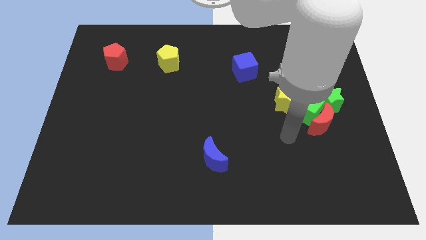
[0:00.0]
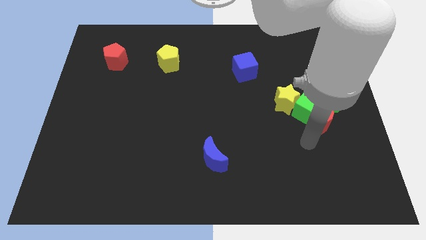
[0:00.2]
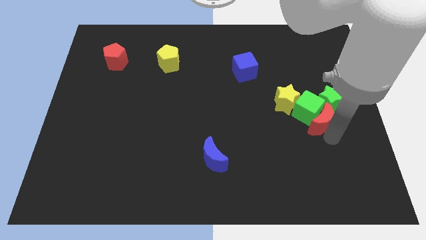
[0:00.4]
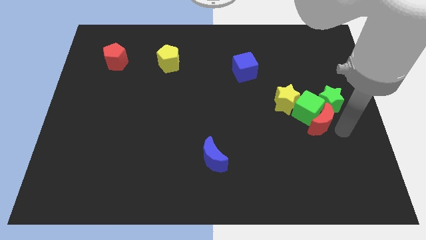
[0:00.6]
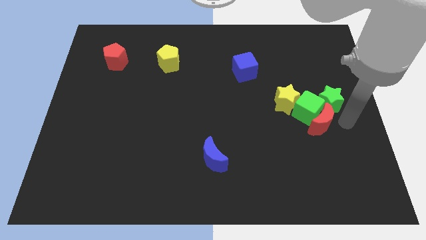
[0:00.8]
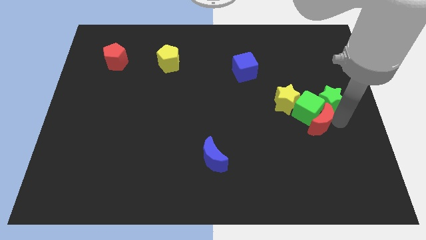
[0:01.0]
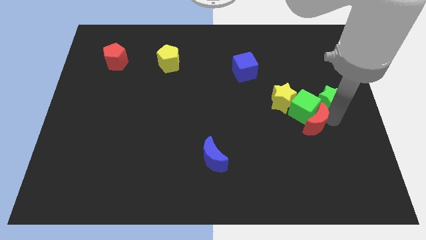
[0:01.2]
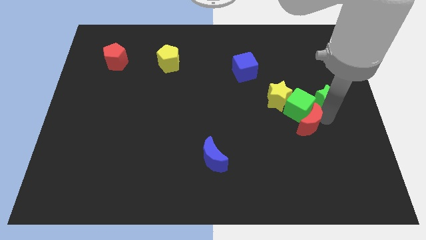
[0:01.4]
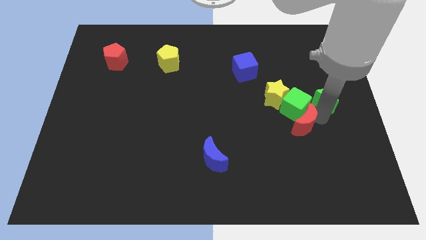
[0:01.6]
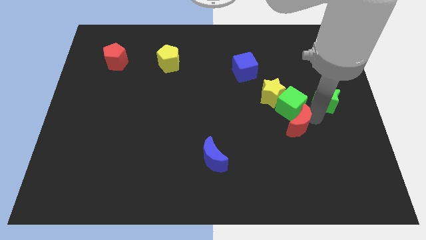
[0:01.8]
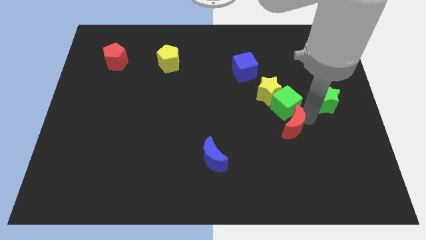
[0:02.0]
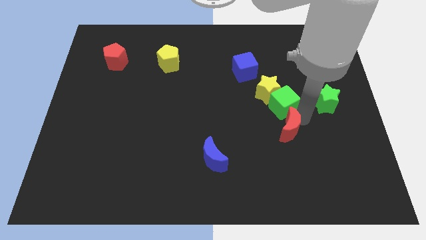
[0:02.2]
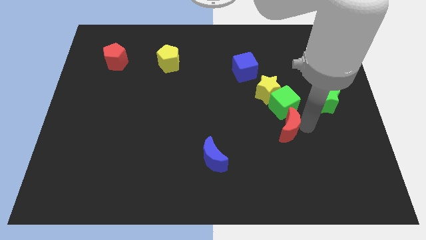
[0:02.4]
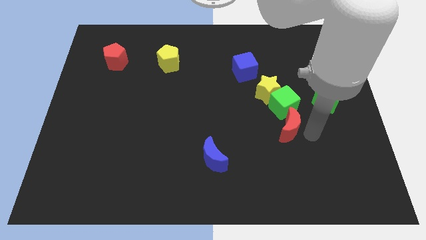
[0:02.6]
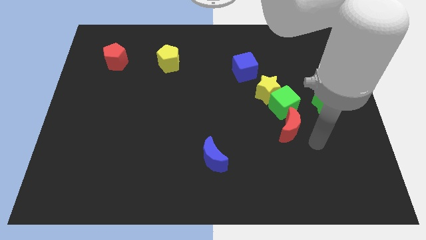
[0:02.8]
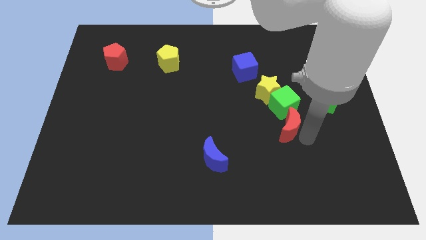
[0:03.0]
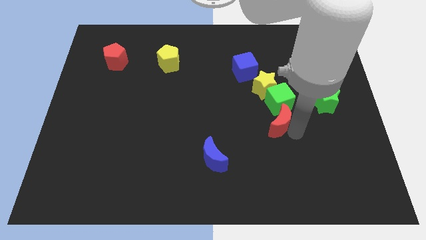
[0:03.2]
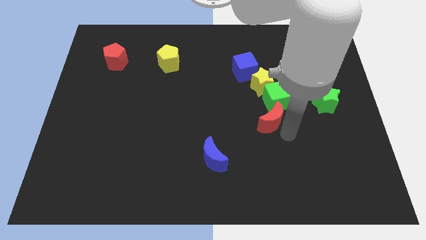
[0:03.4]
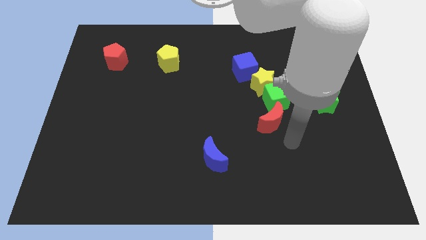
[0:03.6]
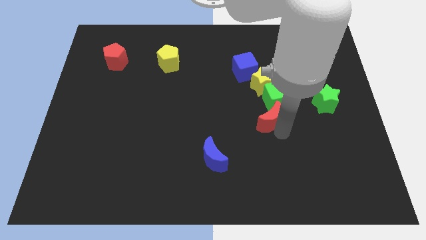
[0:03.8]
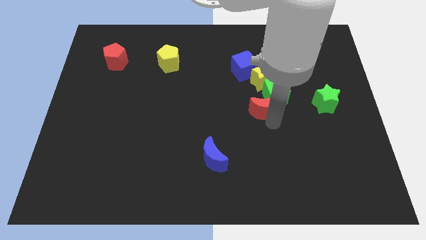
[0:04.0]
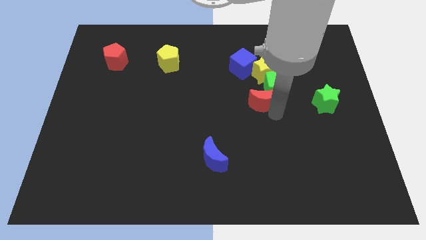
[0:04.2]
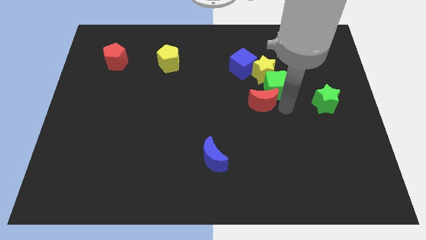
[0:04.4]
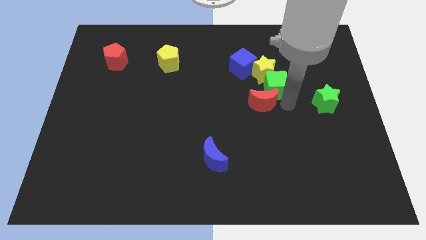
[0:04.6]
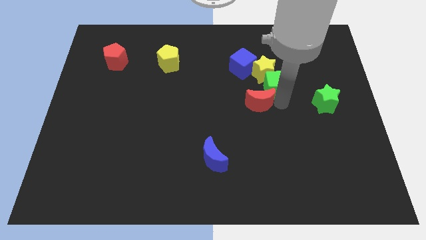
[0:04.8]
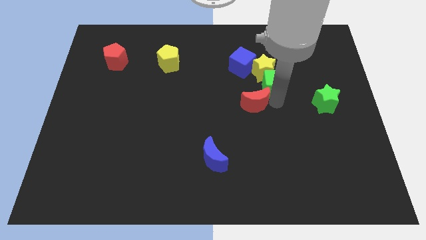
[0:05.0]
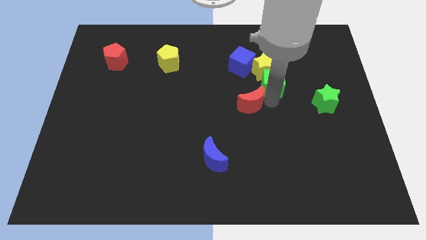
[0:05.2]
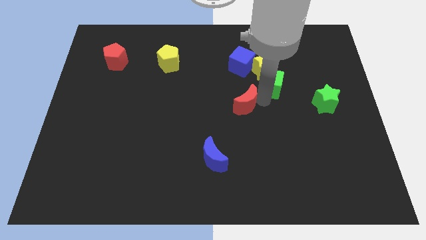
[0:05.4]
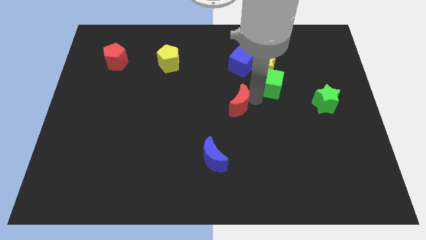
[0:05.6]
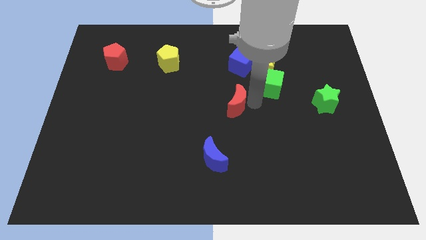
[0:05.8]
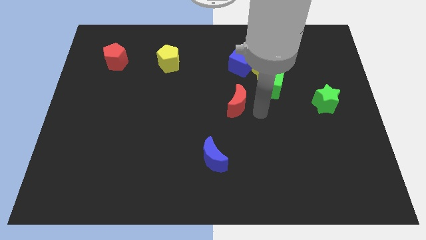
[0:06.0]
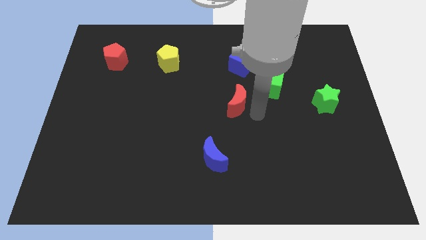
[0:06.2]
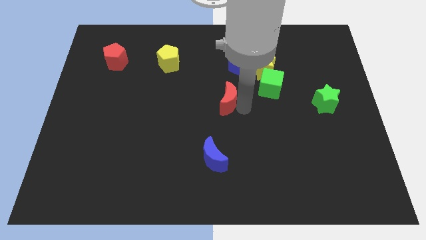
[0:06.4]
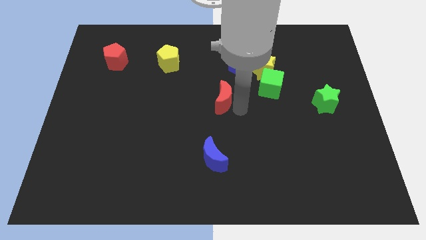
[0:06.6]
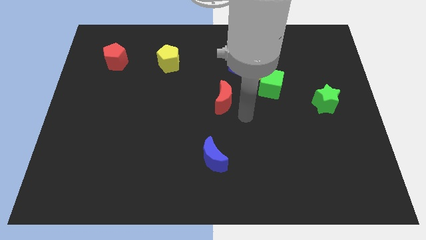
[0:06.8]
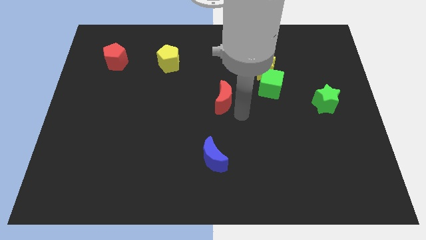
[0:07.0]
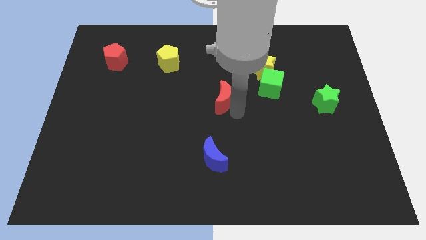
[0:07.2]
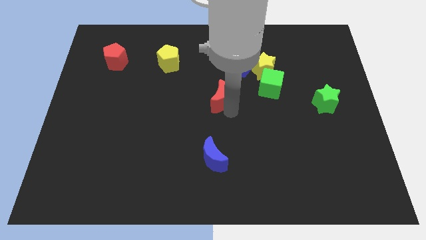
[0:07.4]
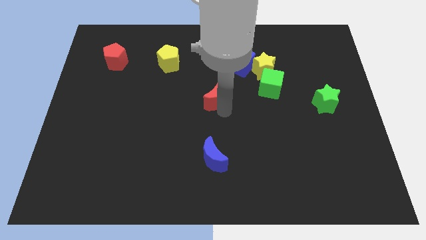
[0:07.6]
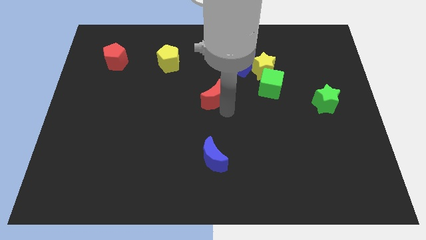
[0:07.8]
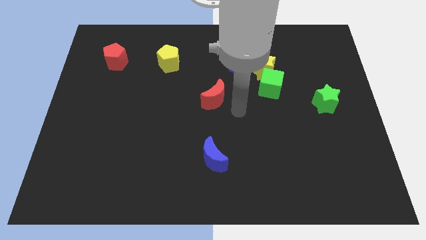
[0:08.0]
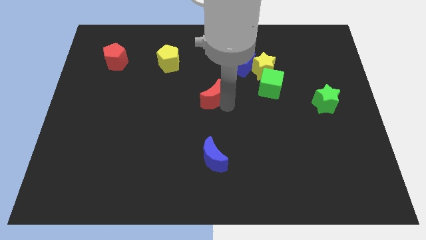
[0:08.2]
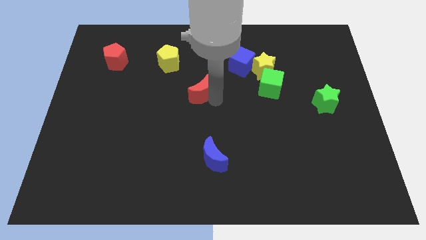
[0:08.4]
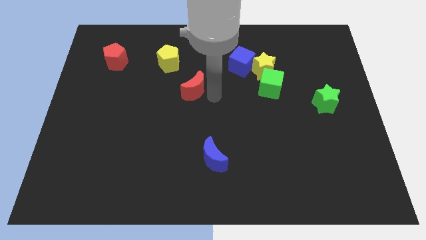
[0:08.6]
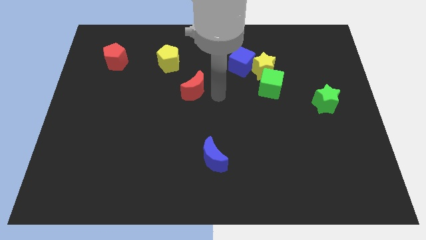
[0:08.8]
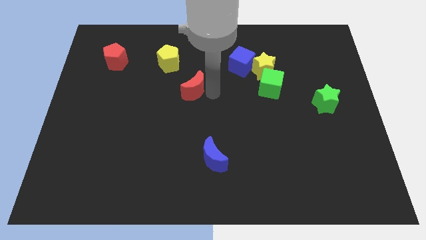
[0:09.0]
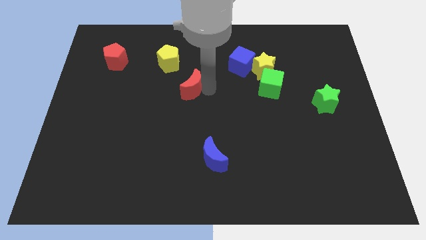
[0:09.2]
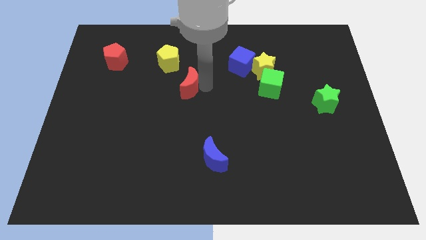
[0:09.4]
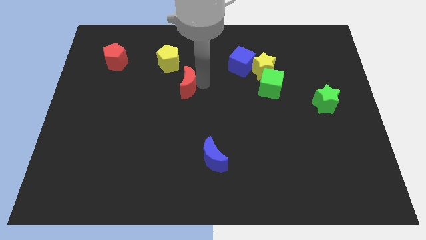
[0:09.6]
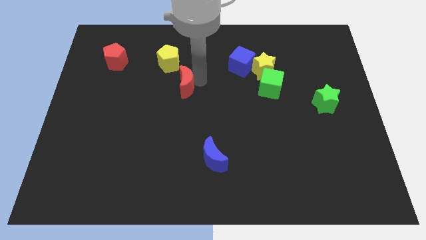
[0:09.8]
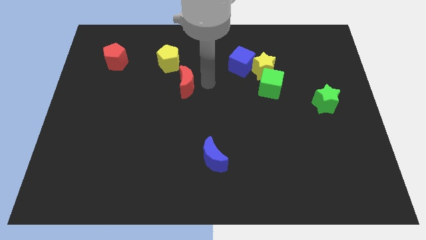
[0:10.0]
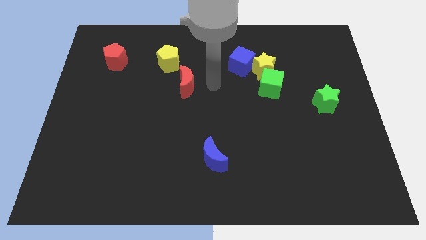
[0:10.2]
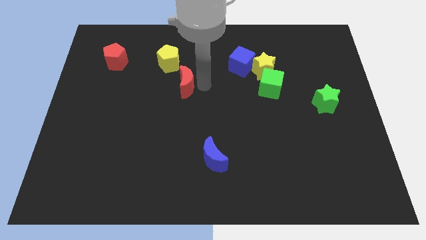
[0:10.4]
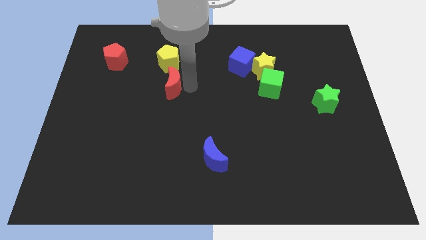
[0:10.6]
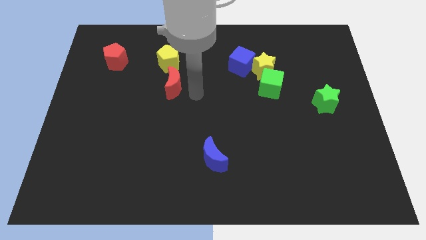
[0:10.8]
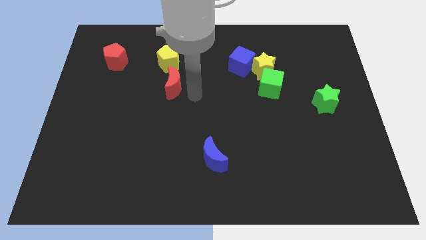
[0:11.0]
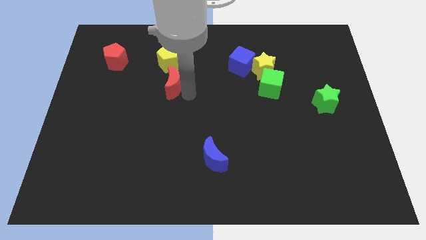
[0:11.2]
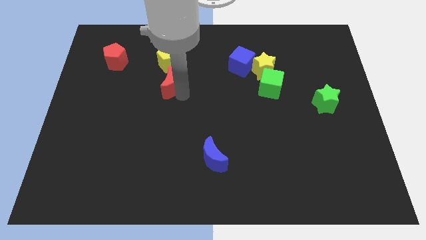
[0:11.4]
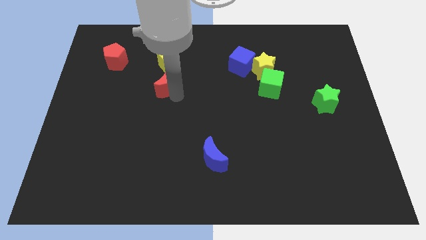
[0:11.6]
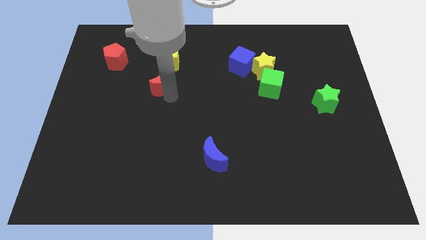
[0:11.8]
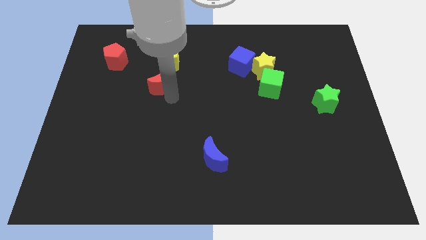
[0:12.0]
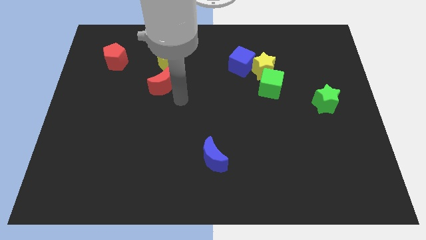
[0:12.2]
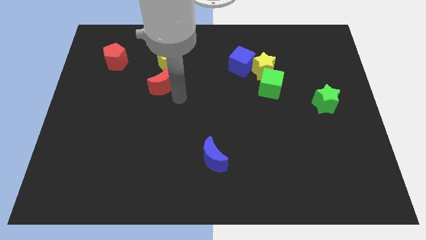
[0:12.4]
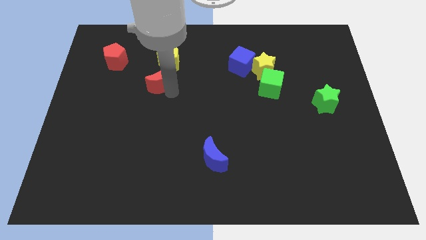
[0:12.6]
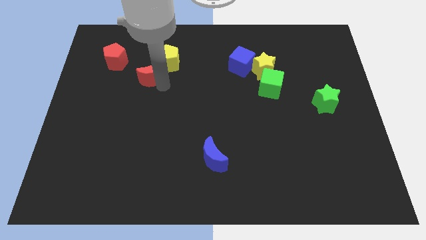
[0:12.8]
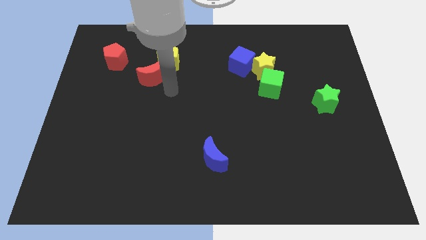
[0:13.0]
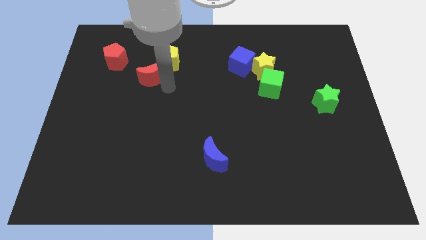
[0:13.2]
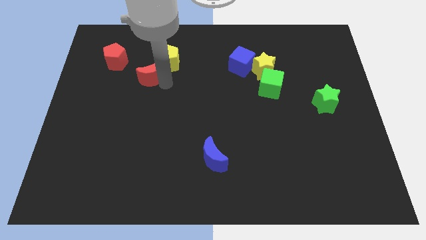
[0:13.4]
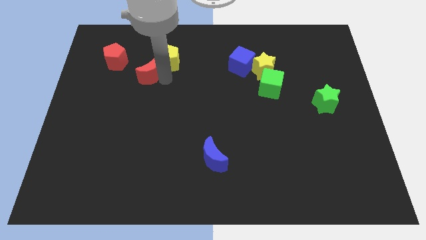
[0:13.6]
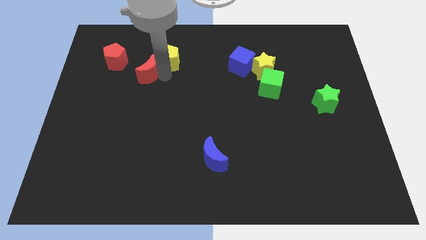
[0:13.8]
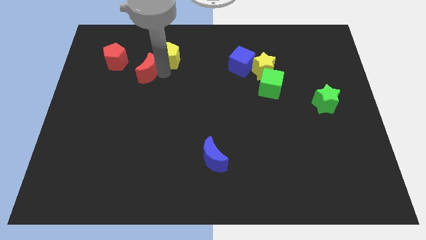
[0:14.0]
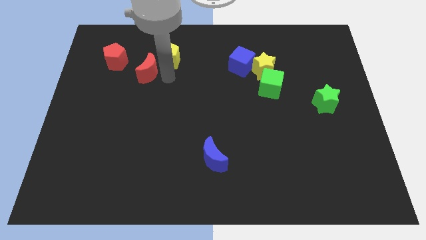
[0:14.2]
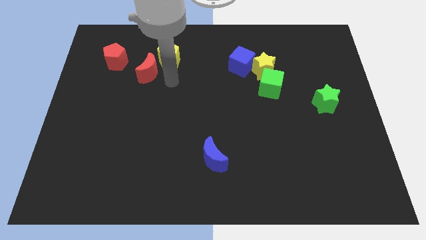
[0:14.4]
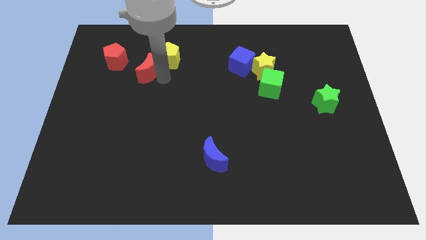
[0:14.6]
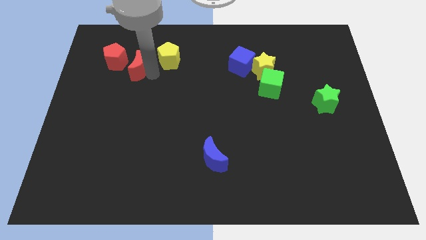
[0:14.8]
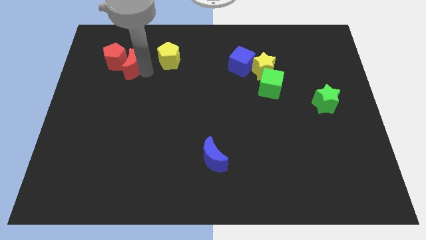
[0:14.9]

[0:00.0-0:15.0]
push the red moon towards the red pentagon
